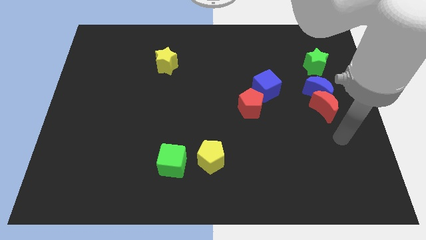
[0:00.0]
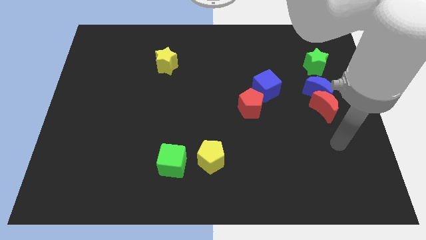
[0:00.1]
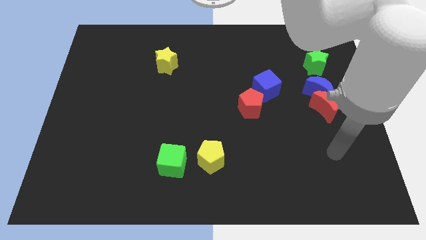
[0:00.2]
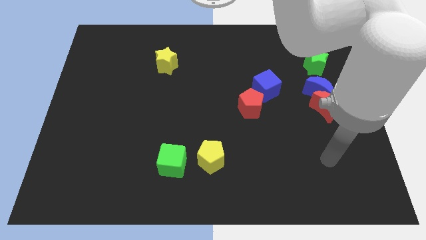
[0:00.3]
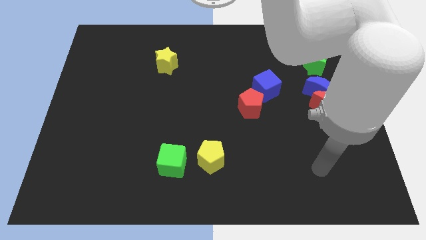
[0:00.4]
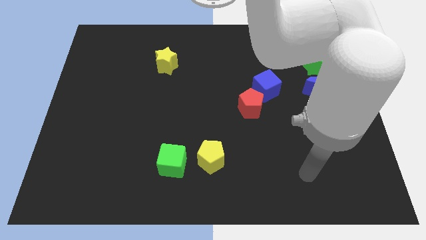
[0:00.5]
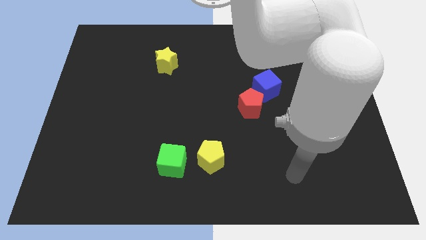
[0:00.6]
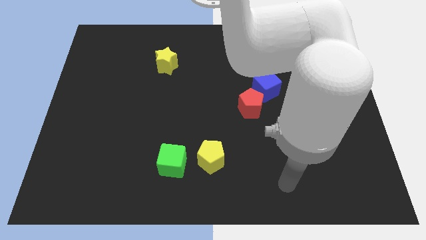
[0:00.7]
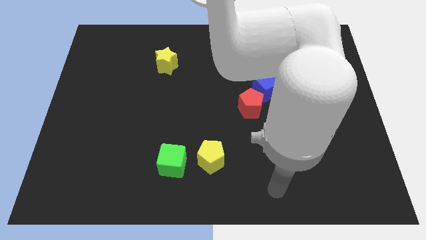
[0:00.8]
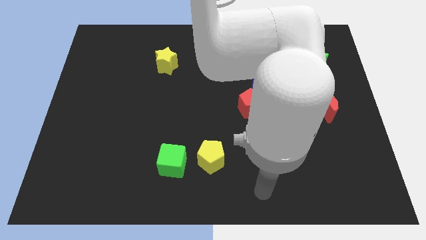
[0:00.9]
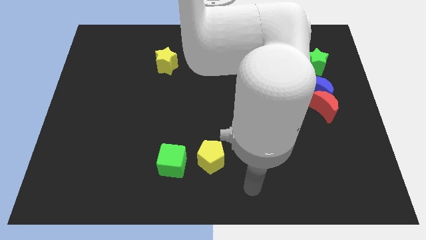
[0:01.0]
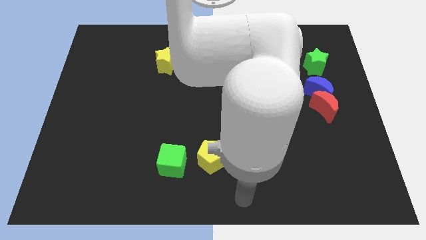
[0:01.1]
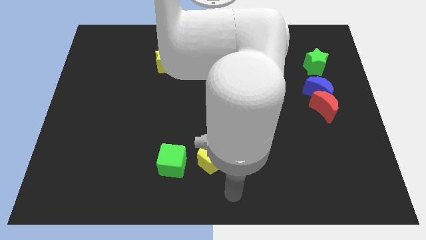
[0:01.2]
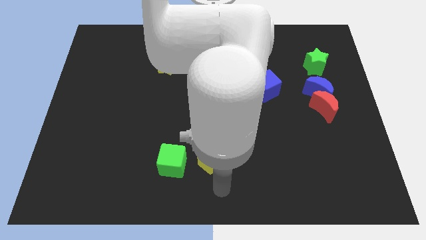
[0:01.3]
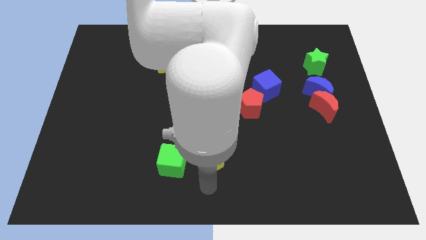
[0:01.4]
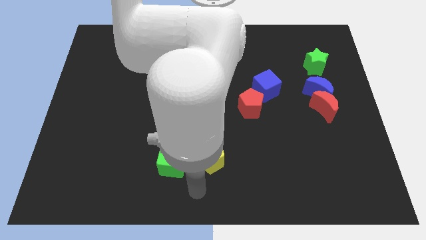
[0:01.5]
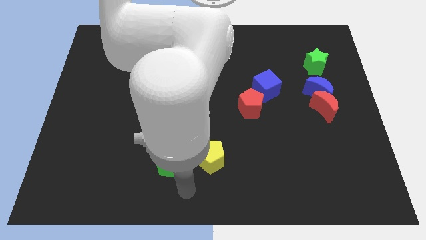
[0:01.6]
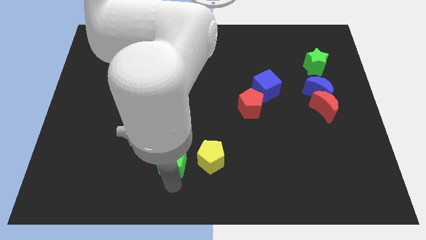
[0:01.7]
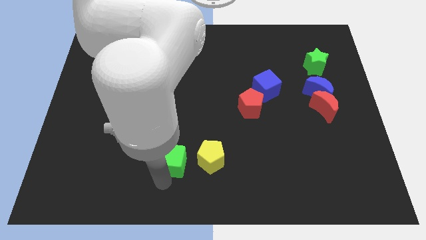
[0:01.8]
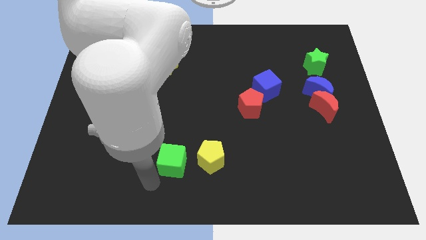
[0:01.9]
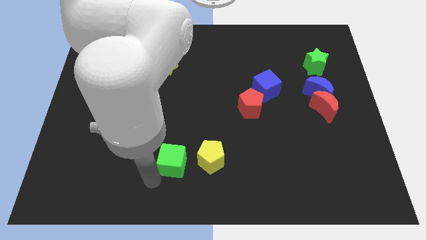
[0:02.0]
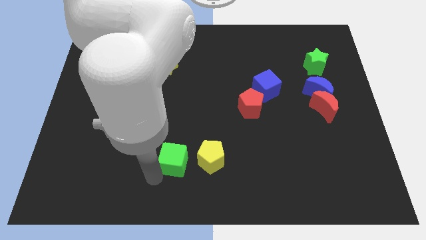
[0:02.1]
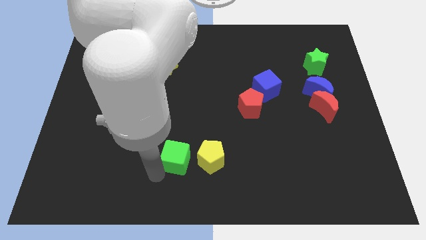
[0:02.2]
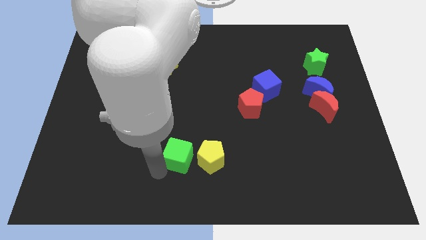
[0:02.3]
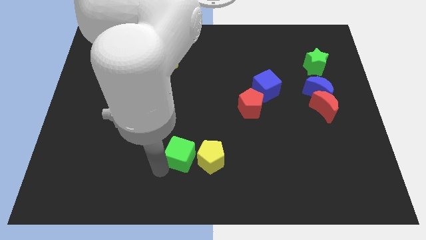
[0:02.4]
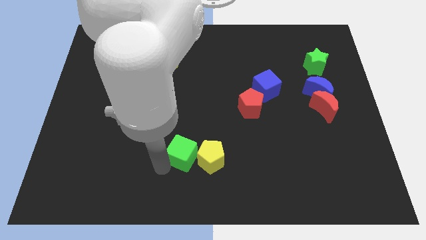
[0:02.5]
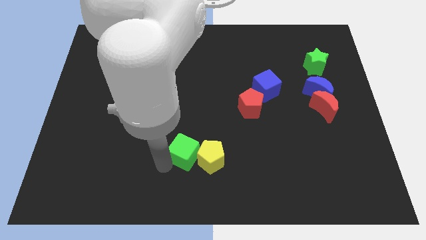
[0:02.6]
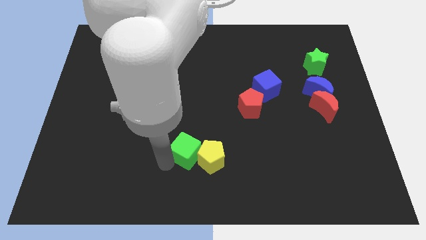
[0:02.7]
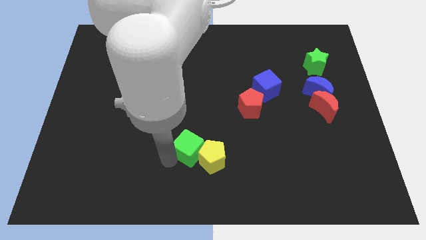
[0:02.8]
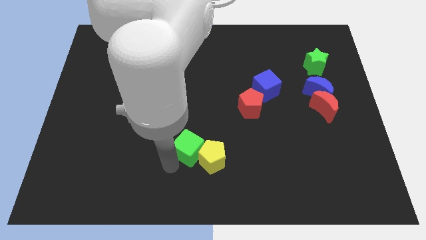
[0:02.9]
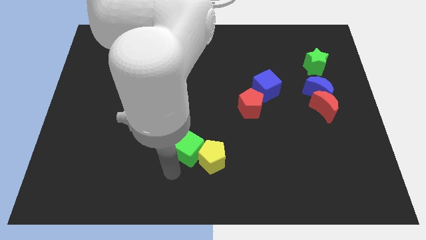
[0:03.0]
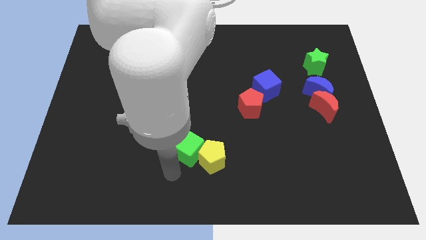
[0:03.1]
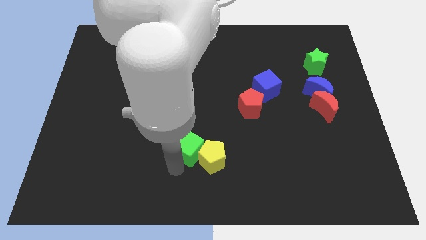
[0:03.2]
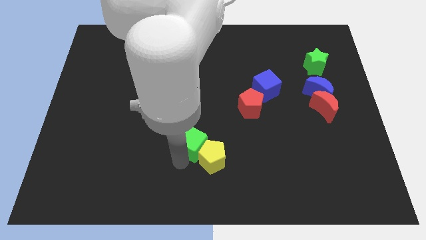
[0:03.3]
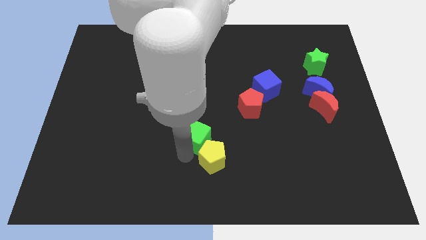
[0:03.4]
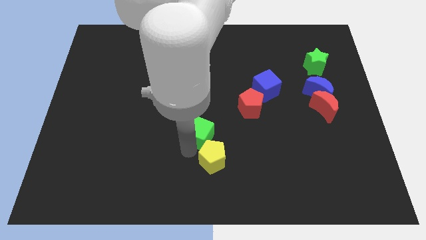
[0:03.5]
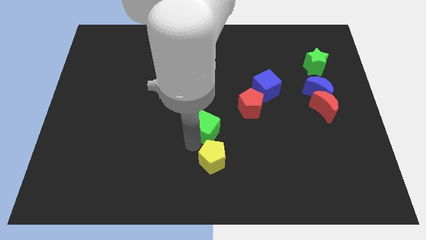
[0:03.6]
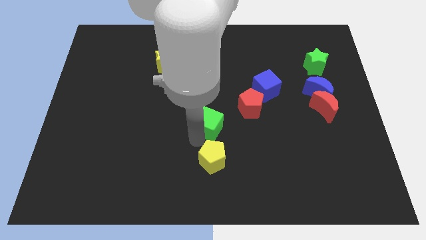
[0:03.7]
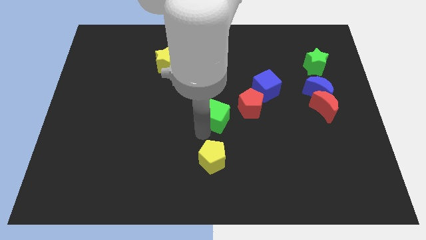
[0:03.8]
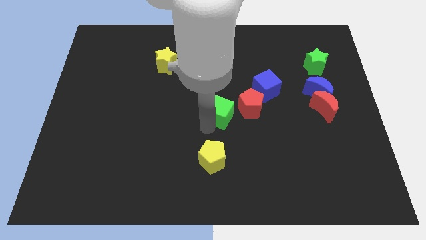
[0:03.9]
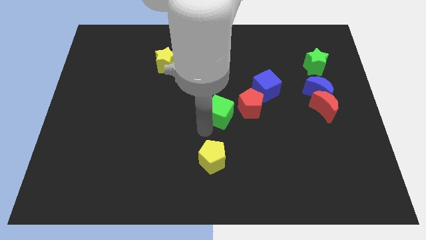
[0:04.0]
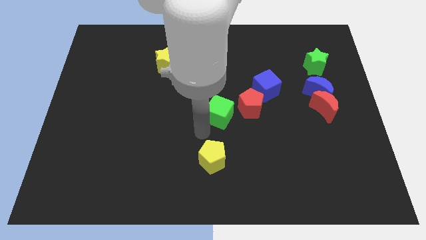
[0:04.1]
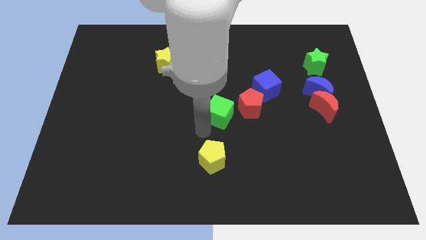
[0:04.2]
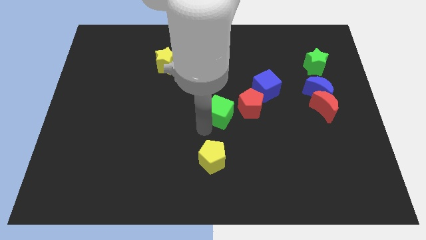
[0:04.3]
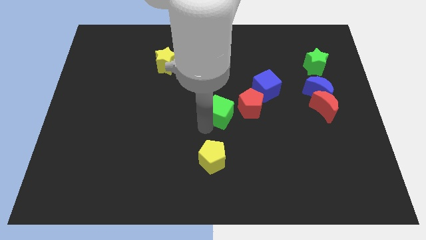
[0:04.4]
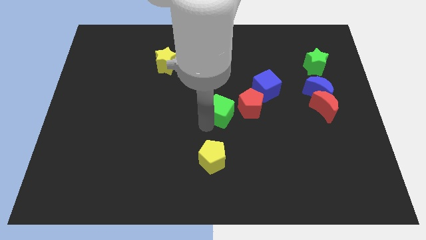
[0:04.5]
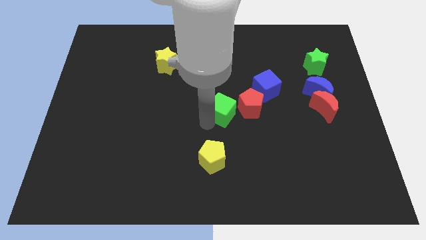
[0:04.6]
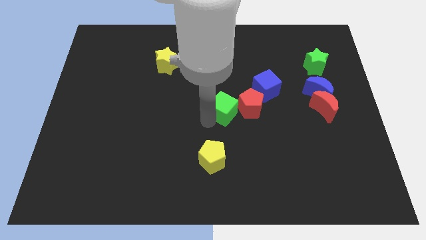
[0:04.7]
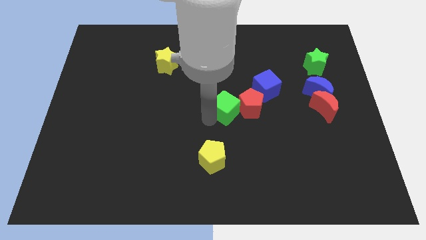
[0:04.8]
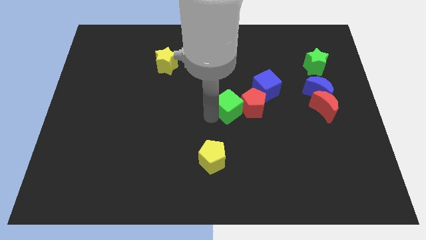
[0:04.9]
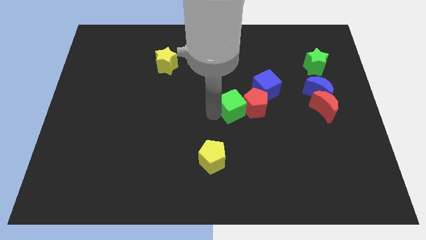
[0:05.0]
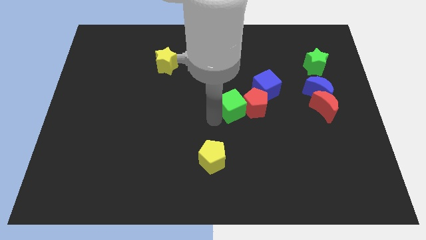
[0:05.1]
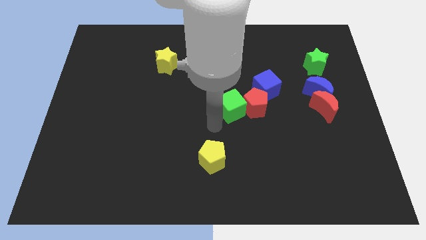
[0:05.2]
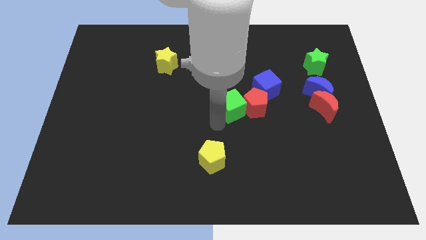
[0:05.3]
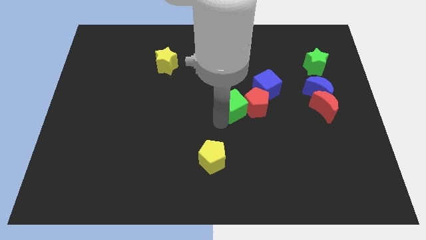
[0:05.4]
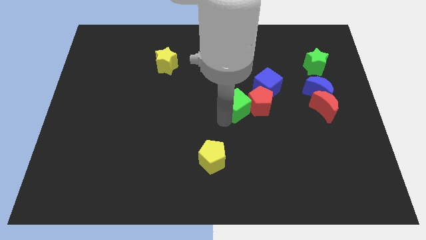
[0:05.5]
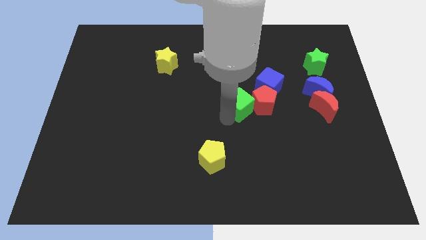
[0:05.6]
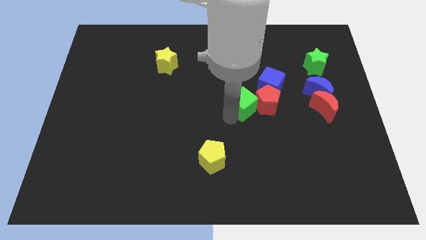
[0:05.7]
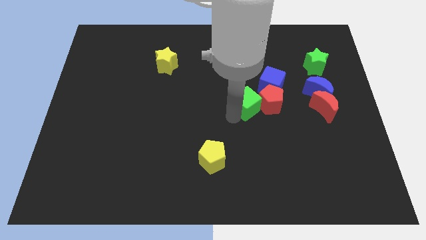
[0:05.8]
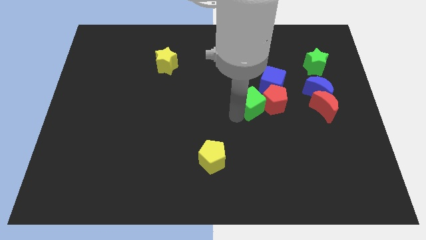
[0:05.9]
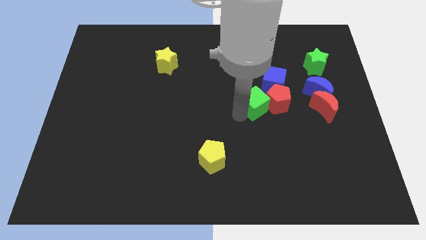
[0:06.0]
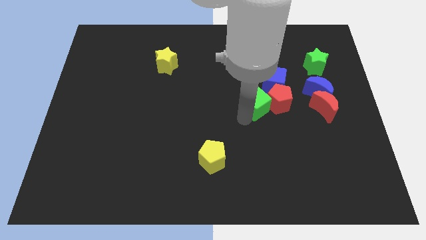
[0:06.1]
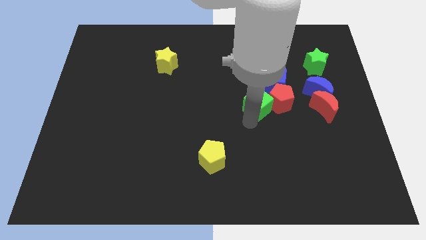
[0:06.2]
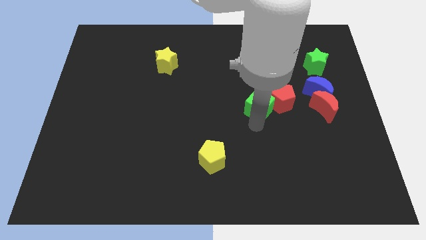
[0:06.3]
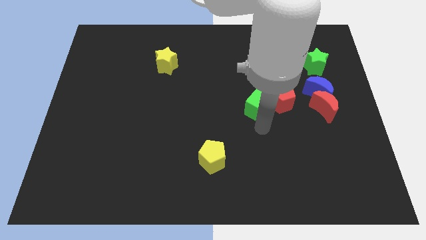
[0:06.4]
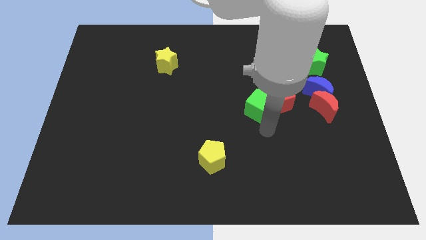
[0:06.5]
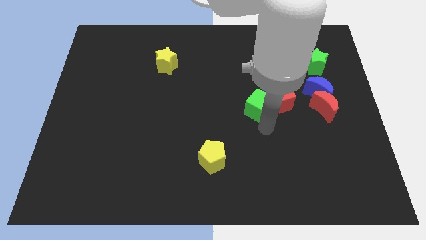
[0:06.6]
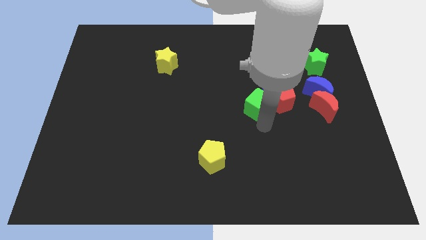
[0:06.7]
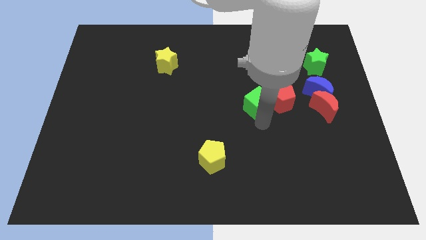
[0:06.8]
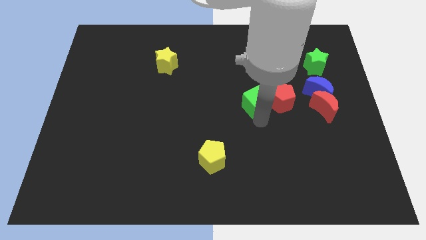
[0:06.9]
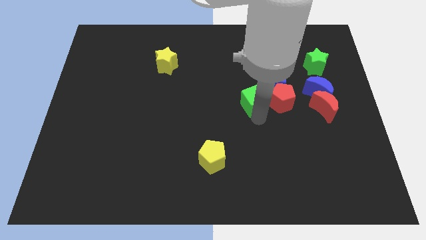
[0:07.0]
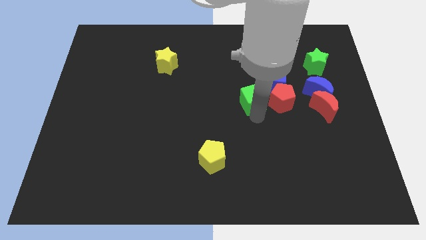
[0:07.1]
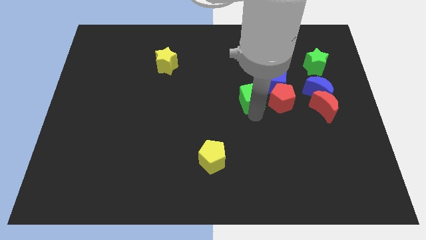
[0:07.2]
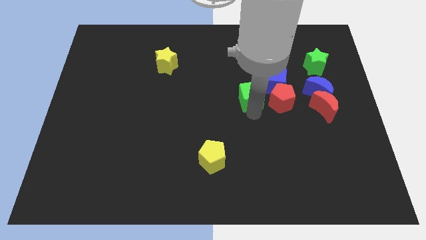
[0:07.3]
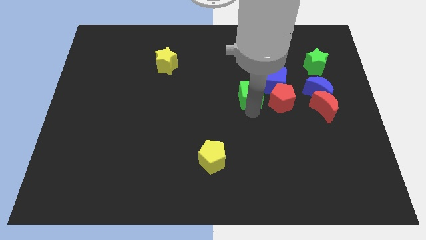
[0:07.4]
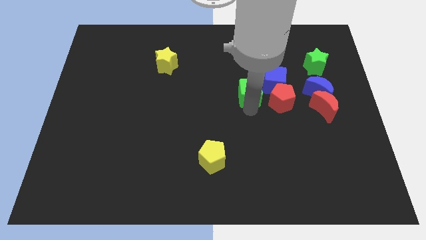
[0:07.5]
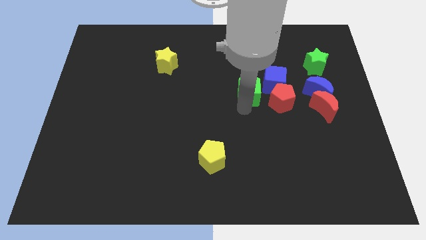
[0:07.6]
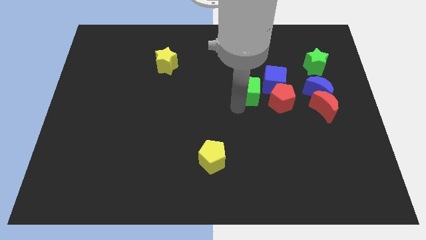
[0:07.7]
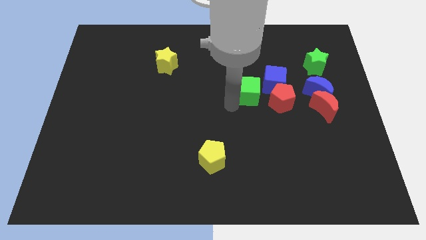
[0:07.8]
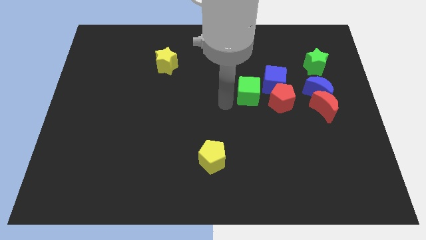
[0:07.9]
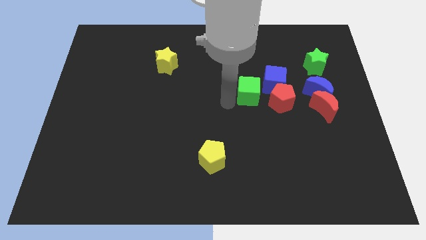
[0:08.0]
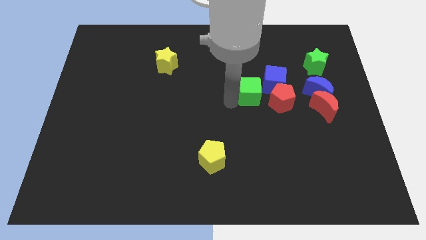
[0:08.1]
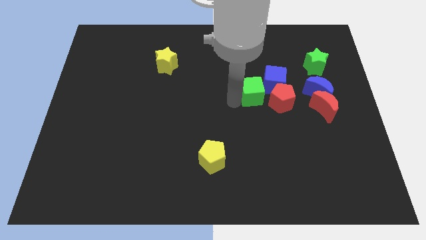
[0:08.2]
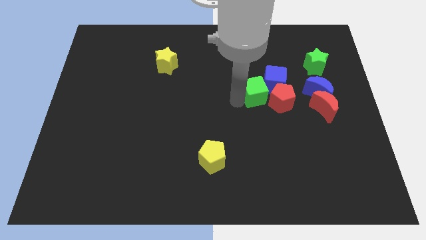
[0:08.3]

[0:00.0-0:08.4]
put the green cube next to the blue cube
